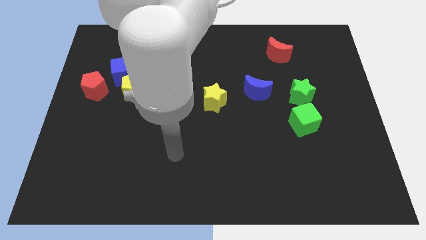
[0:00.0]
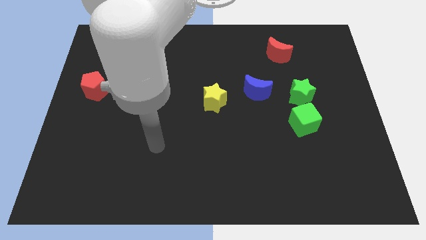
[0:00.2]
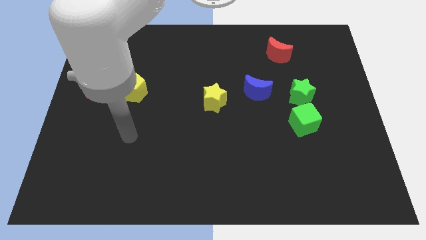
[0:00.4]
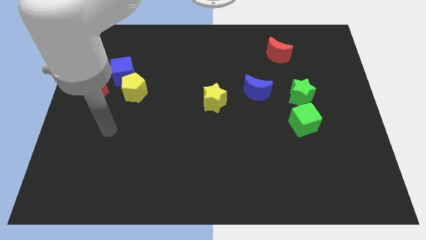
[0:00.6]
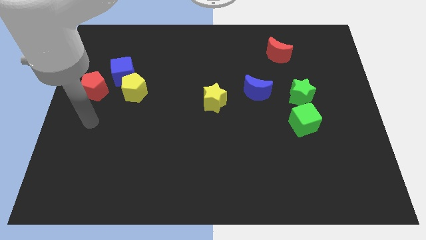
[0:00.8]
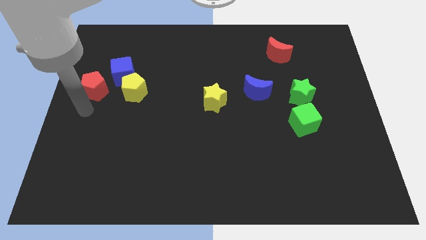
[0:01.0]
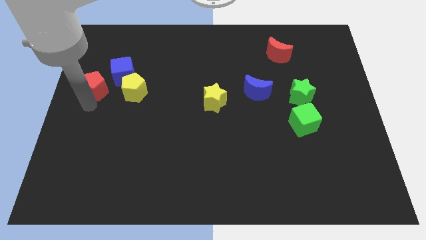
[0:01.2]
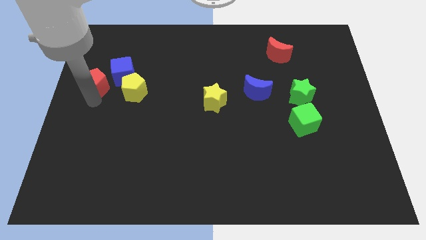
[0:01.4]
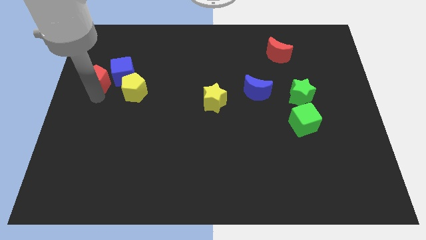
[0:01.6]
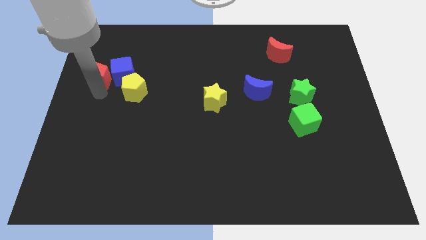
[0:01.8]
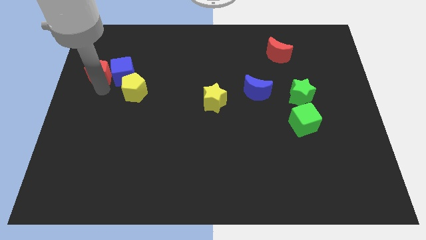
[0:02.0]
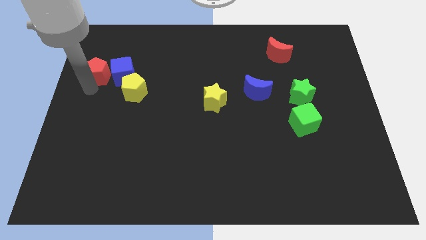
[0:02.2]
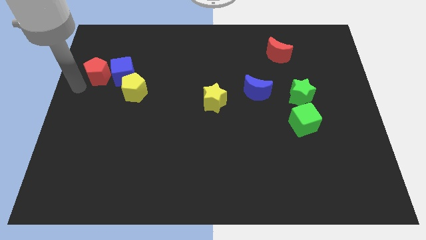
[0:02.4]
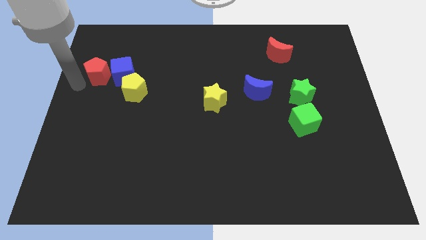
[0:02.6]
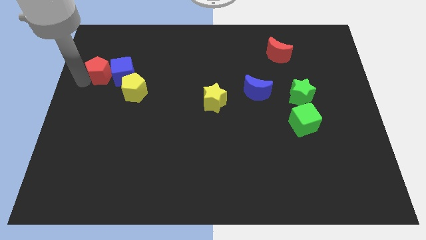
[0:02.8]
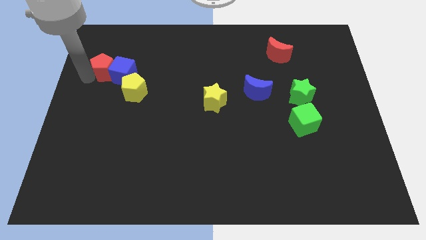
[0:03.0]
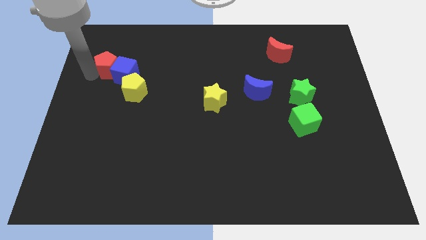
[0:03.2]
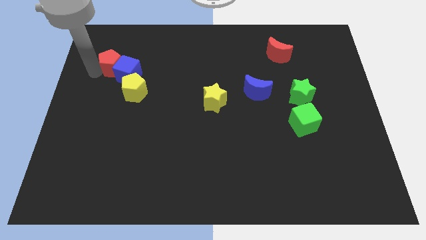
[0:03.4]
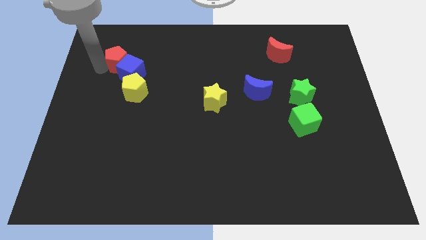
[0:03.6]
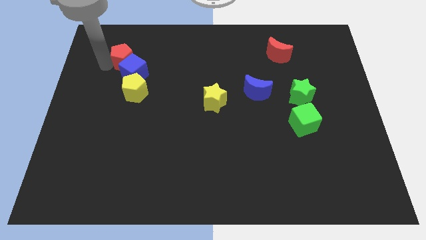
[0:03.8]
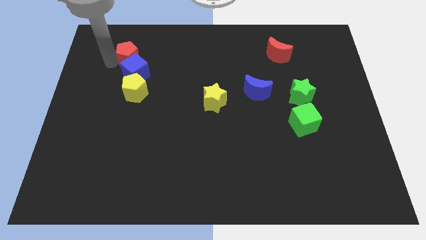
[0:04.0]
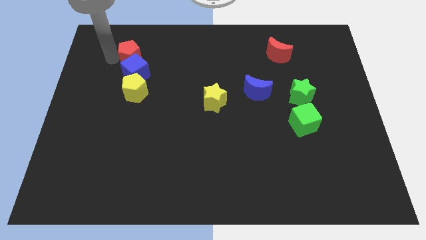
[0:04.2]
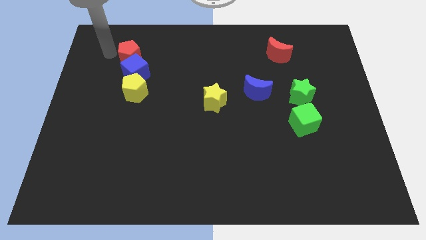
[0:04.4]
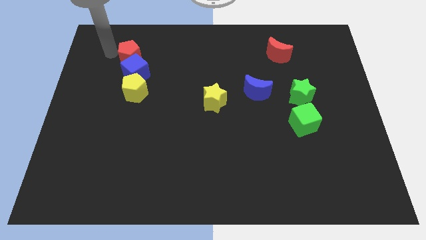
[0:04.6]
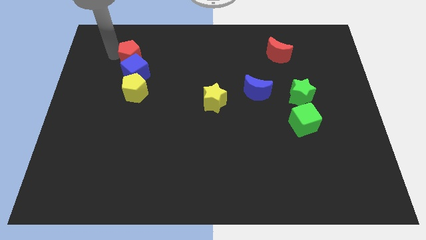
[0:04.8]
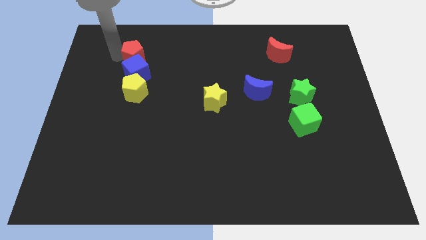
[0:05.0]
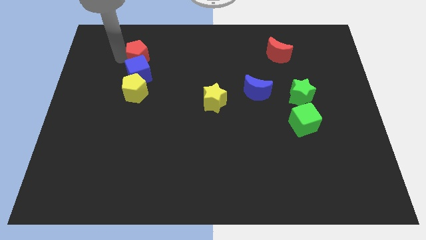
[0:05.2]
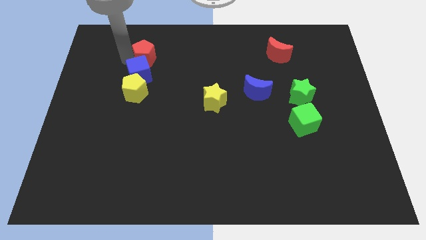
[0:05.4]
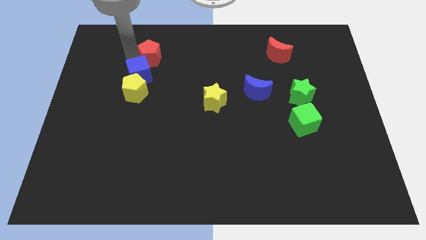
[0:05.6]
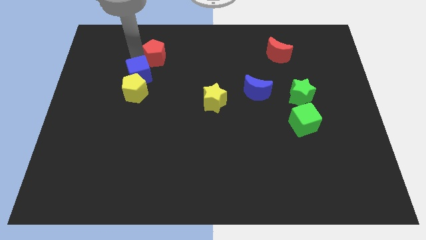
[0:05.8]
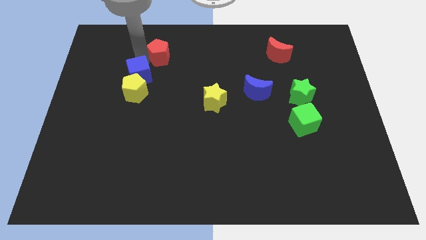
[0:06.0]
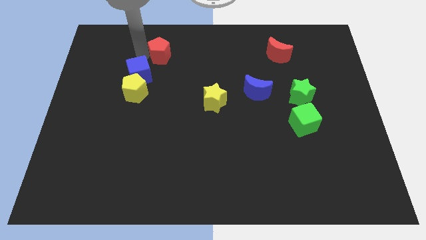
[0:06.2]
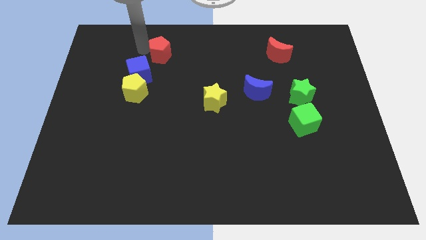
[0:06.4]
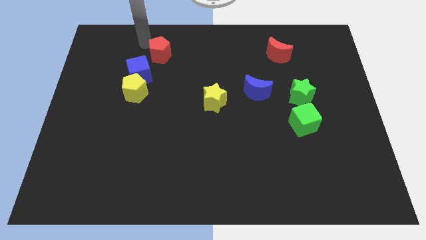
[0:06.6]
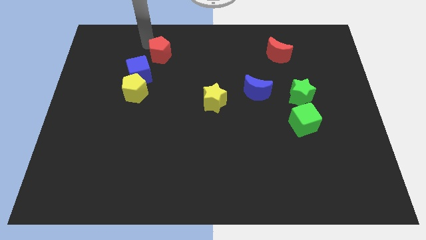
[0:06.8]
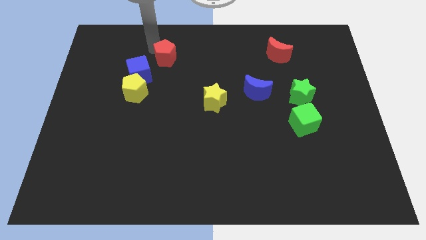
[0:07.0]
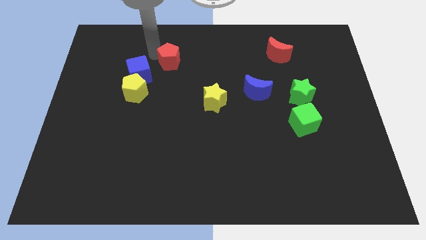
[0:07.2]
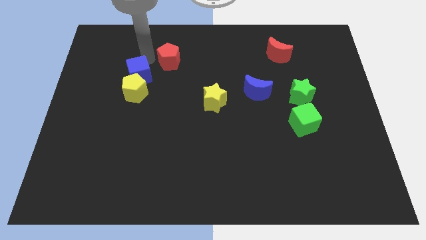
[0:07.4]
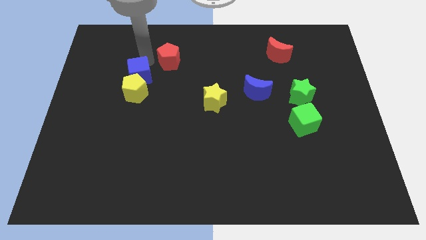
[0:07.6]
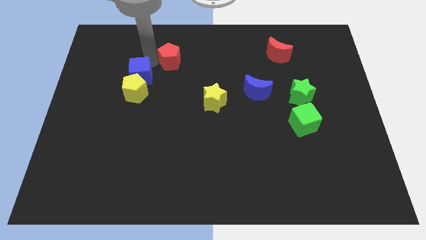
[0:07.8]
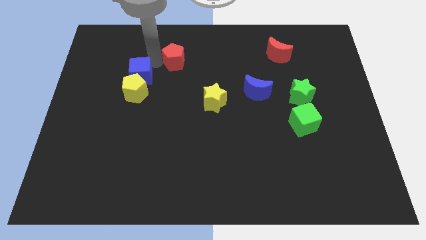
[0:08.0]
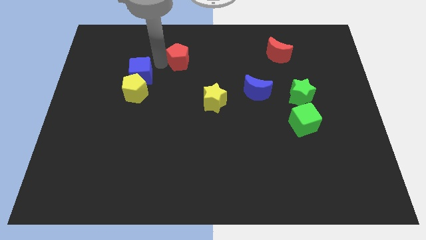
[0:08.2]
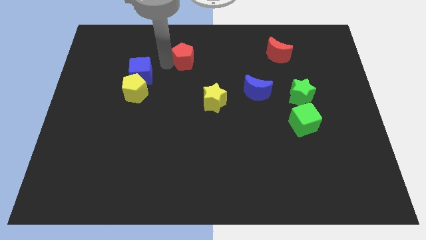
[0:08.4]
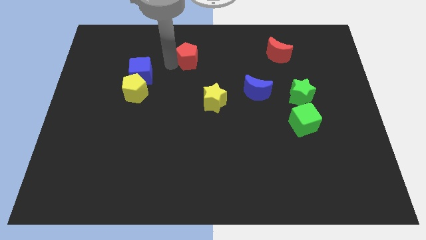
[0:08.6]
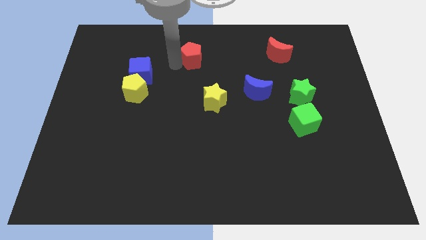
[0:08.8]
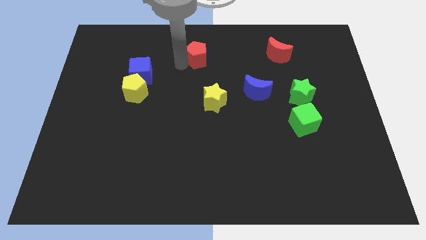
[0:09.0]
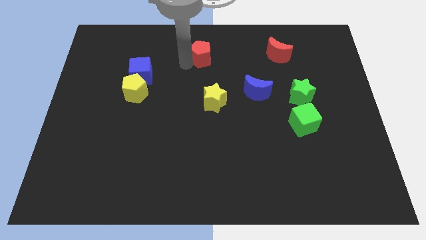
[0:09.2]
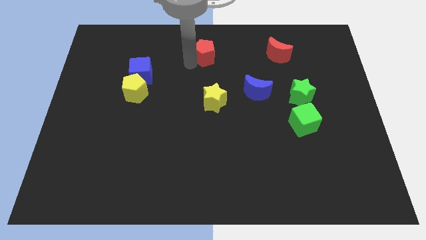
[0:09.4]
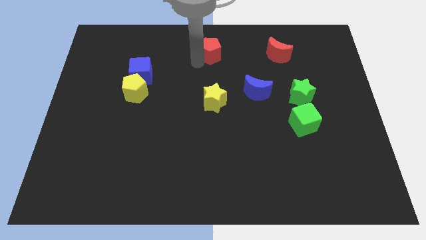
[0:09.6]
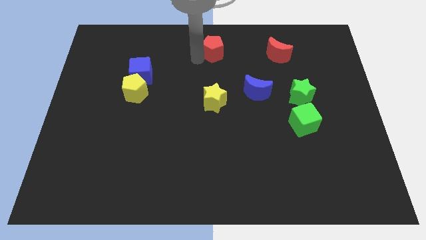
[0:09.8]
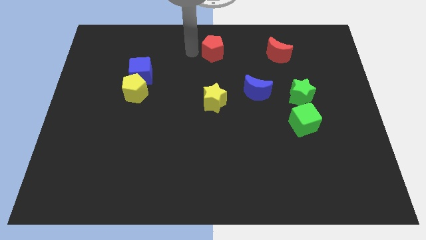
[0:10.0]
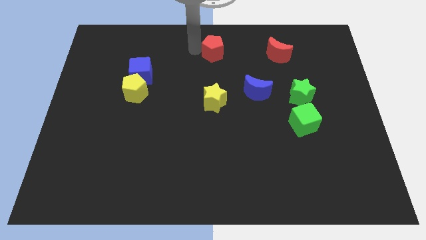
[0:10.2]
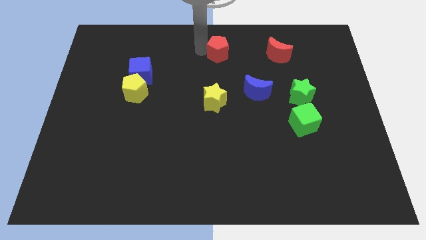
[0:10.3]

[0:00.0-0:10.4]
put the red pentagon to the left side of the red moon

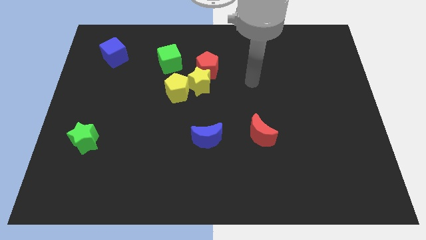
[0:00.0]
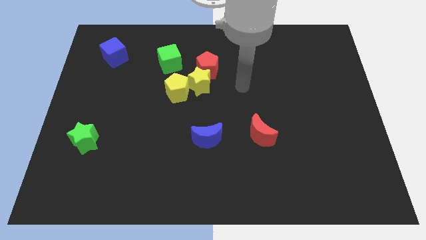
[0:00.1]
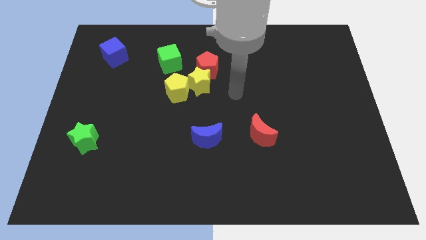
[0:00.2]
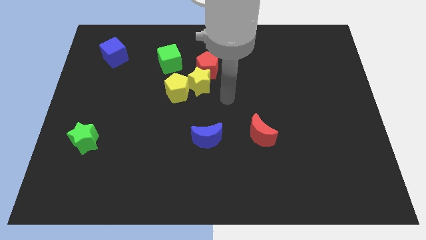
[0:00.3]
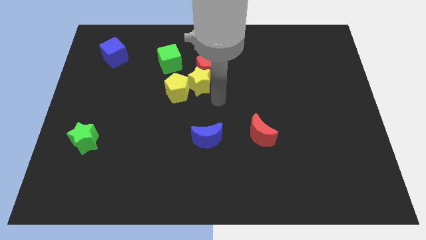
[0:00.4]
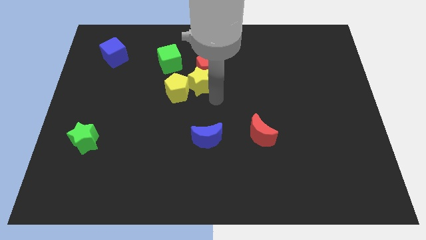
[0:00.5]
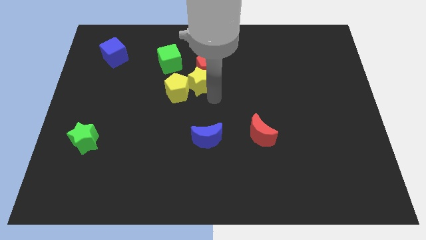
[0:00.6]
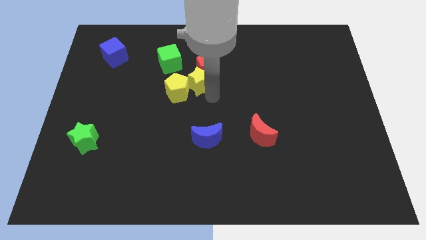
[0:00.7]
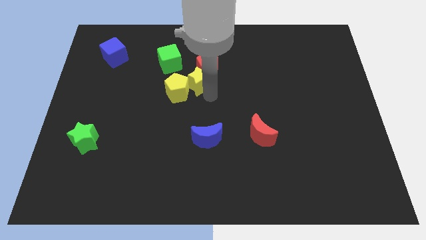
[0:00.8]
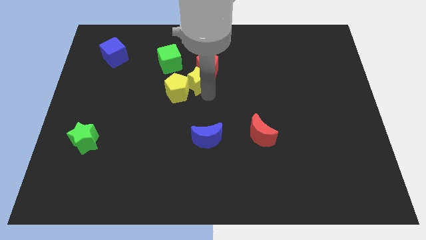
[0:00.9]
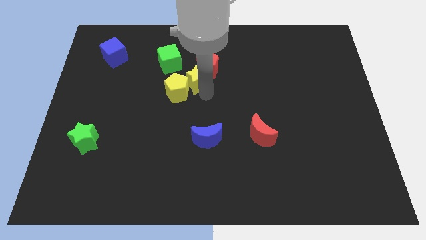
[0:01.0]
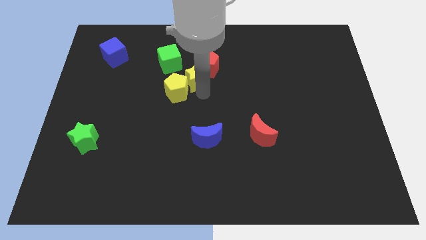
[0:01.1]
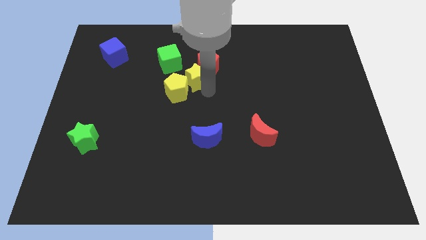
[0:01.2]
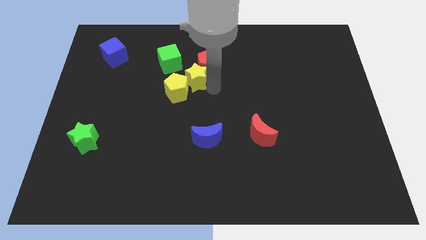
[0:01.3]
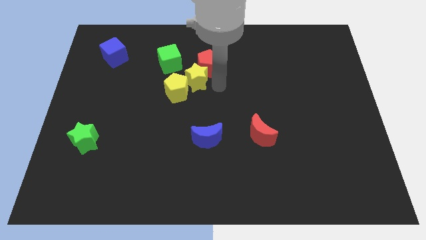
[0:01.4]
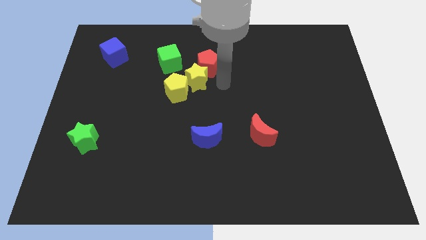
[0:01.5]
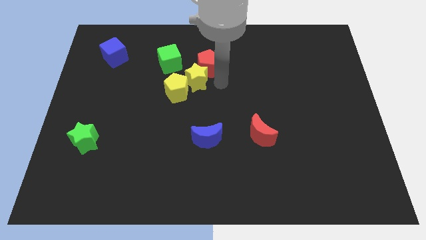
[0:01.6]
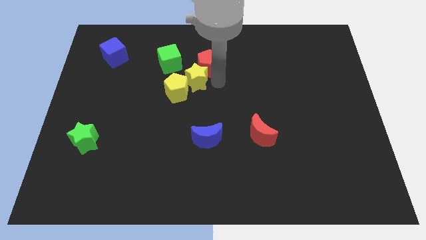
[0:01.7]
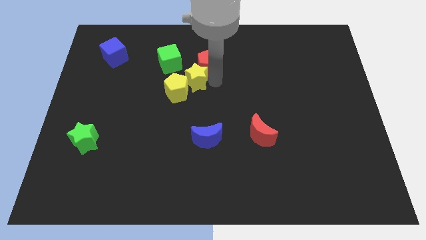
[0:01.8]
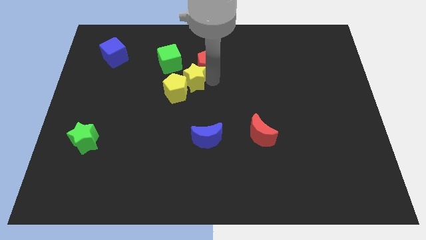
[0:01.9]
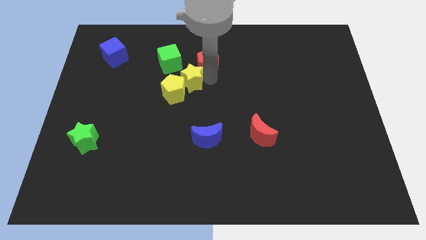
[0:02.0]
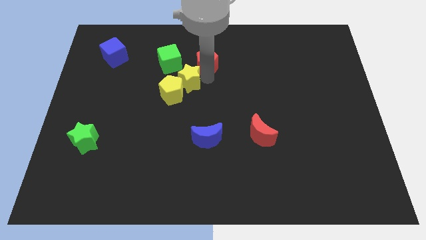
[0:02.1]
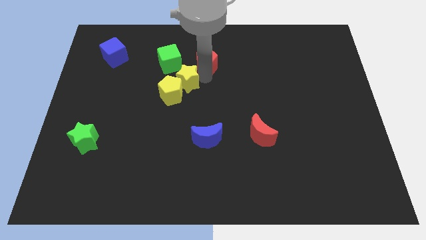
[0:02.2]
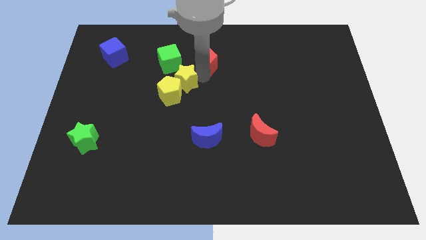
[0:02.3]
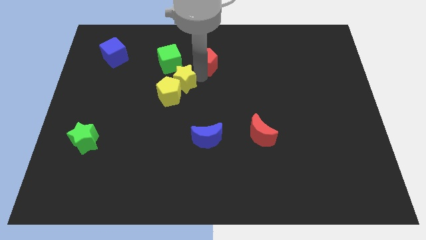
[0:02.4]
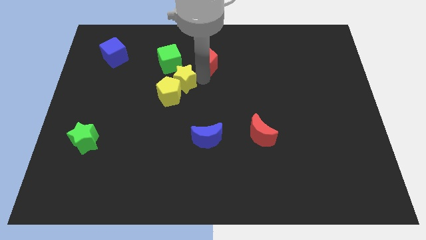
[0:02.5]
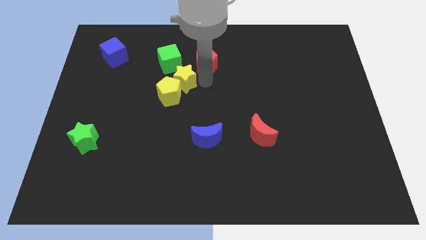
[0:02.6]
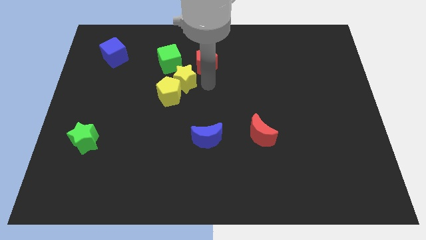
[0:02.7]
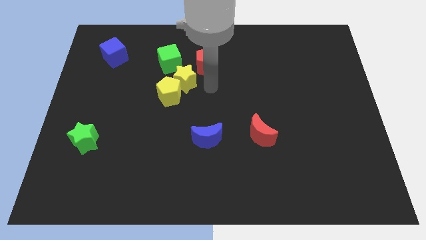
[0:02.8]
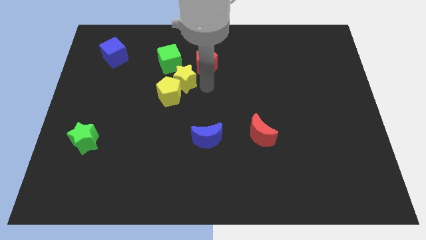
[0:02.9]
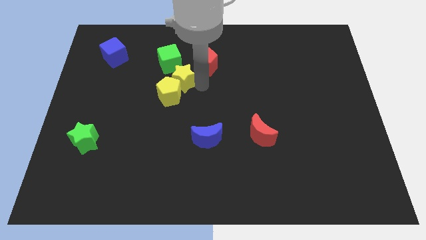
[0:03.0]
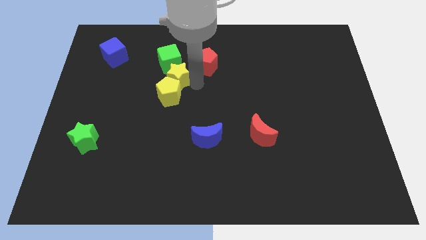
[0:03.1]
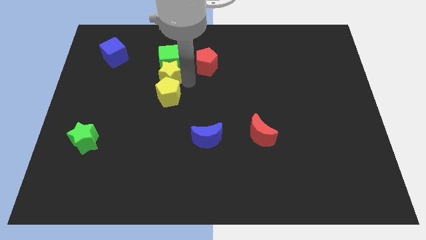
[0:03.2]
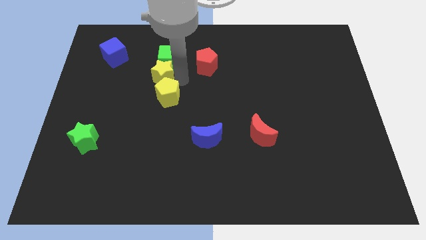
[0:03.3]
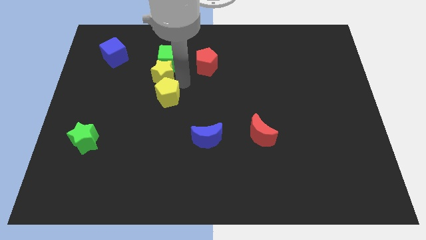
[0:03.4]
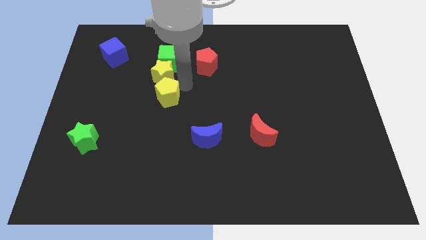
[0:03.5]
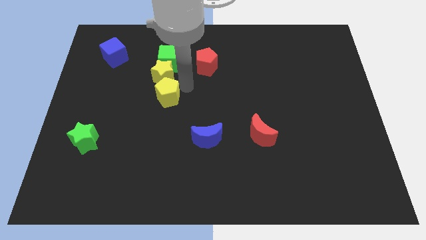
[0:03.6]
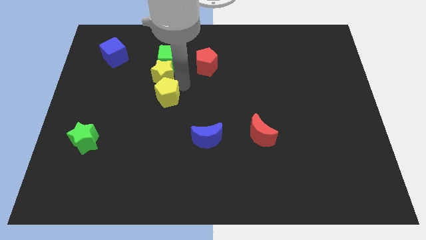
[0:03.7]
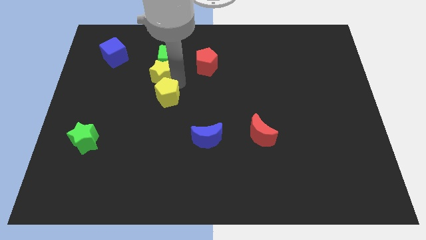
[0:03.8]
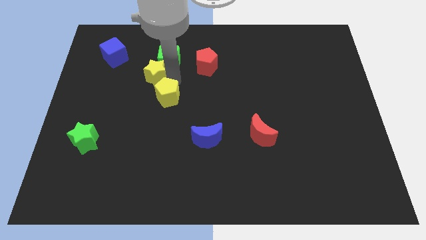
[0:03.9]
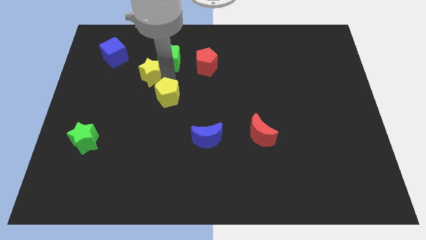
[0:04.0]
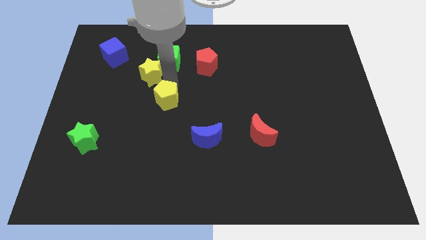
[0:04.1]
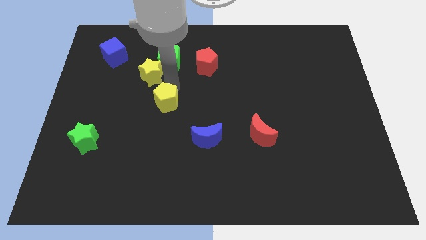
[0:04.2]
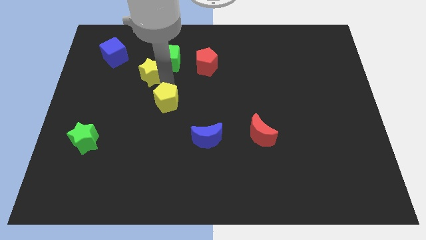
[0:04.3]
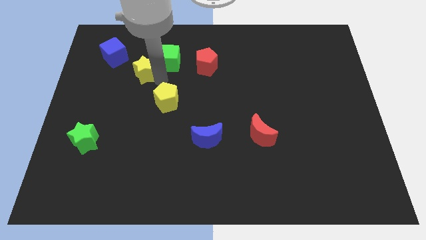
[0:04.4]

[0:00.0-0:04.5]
put the yellow star just left of the green cube
